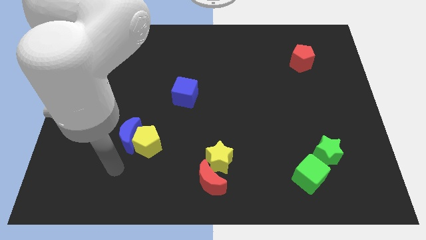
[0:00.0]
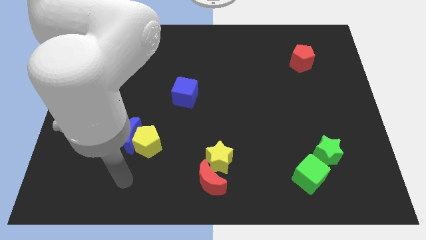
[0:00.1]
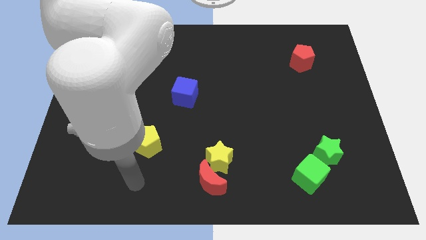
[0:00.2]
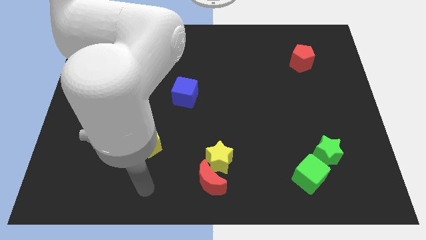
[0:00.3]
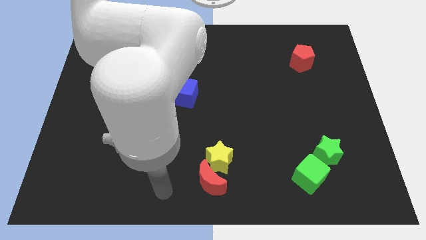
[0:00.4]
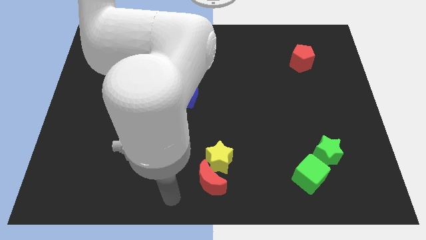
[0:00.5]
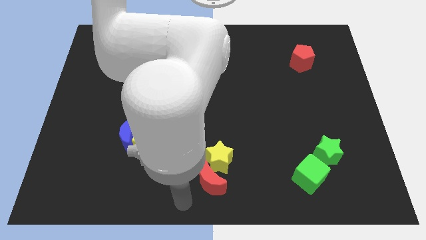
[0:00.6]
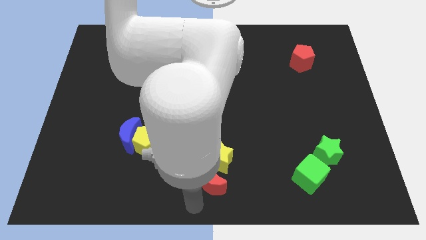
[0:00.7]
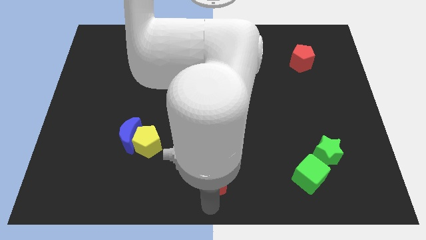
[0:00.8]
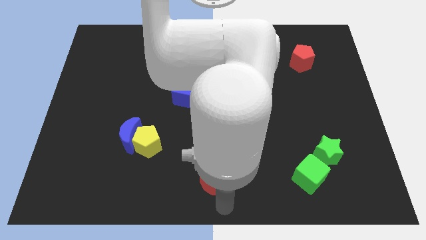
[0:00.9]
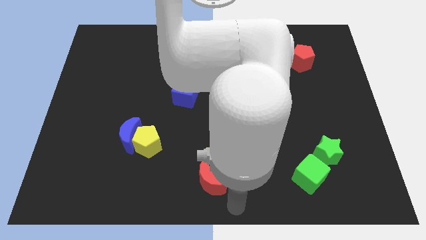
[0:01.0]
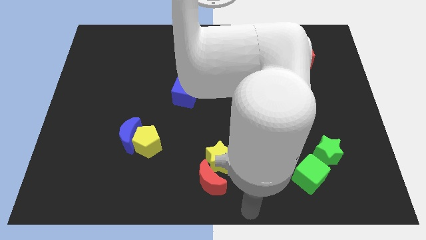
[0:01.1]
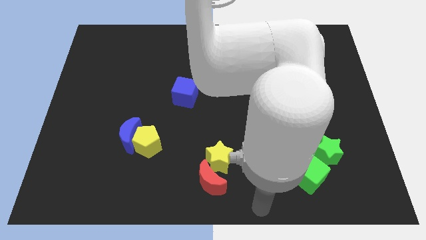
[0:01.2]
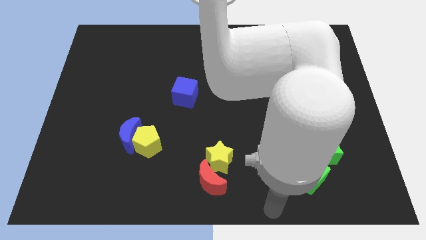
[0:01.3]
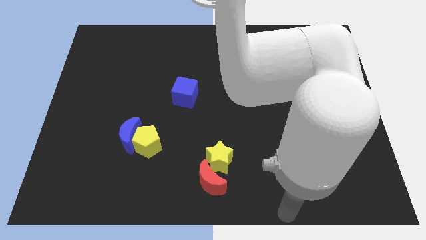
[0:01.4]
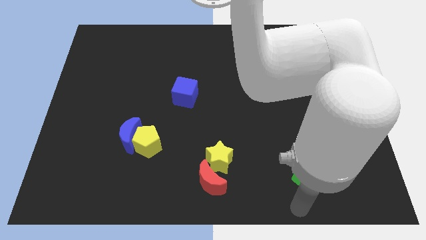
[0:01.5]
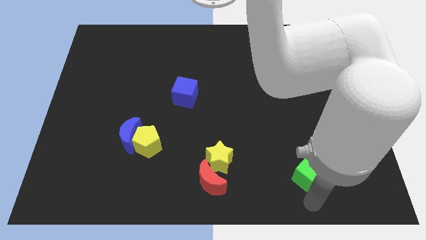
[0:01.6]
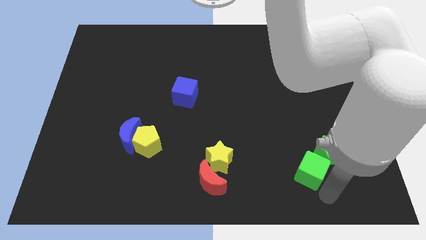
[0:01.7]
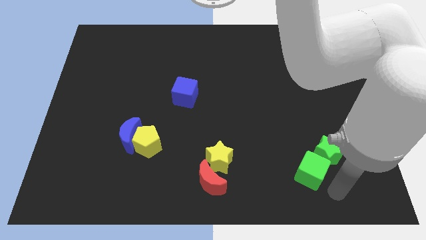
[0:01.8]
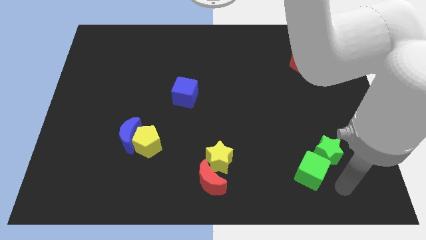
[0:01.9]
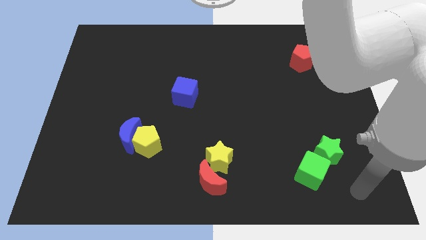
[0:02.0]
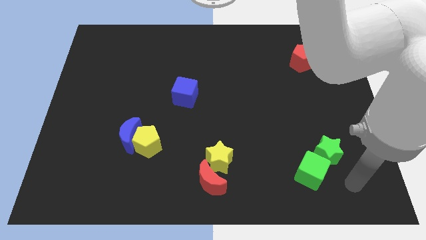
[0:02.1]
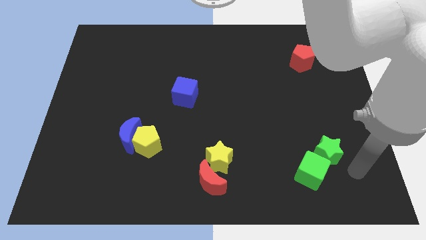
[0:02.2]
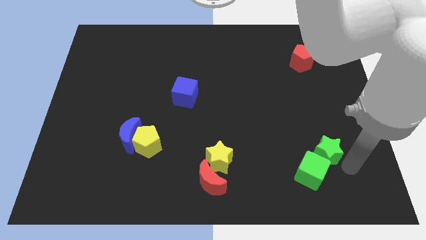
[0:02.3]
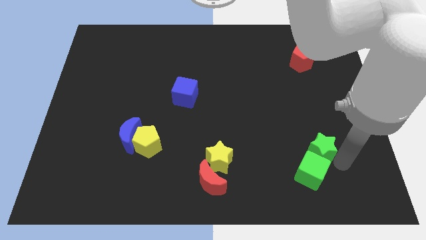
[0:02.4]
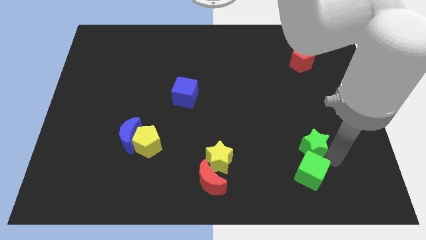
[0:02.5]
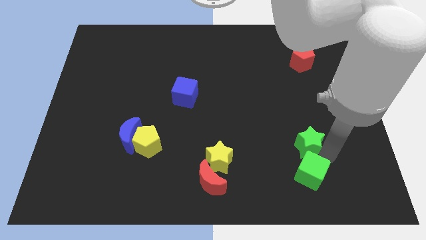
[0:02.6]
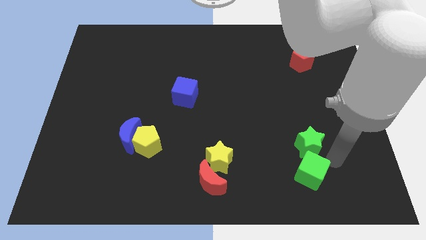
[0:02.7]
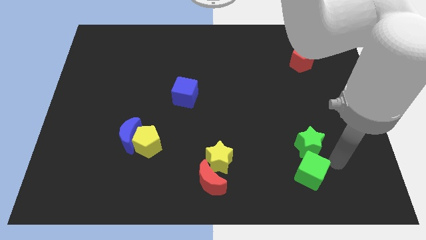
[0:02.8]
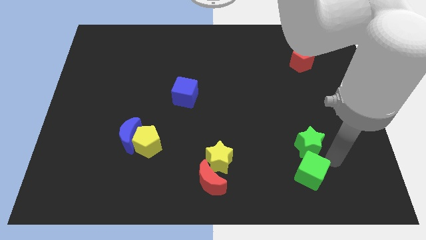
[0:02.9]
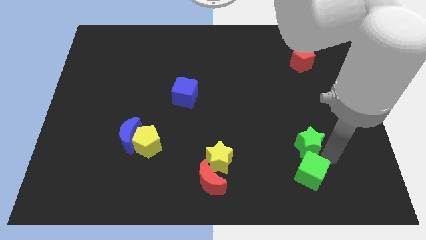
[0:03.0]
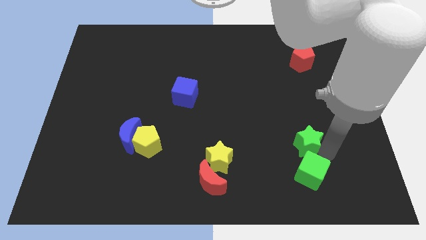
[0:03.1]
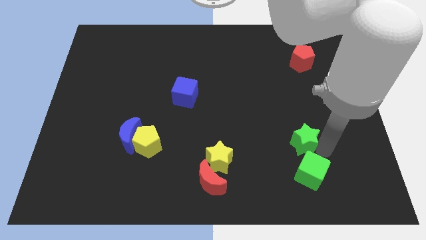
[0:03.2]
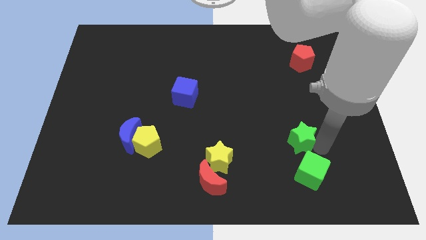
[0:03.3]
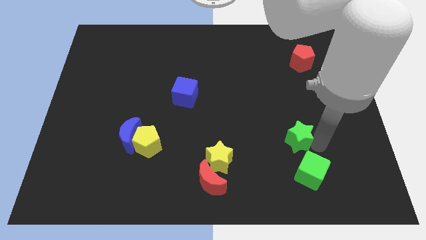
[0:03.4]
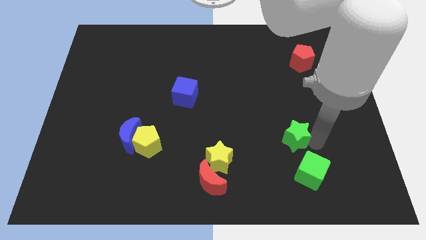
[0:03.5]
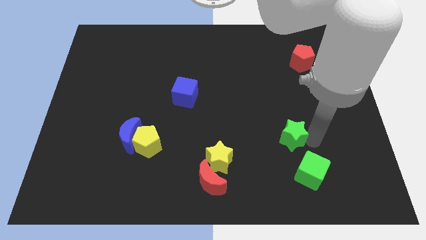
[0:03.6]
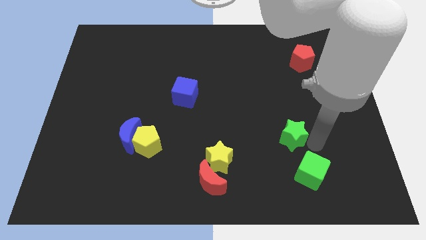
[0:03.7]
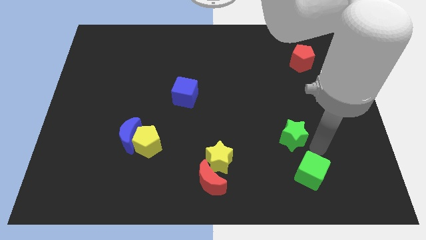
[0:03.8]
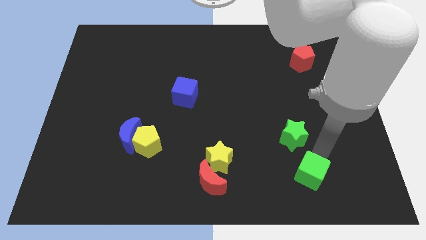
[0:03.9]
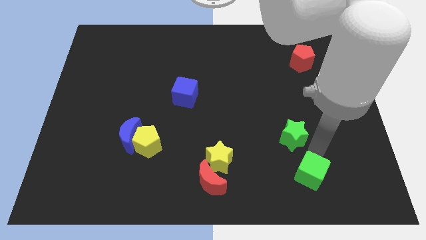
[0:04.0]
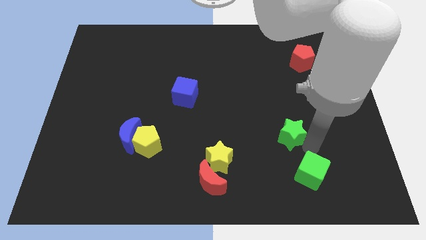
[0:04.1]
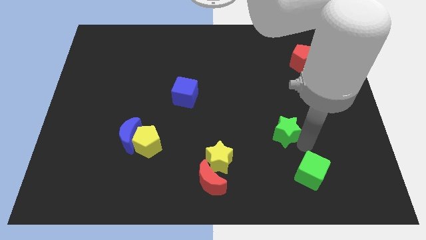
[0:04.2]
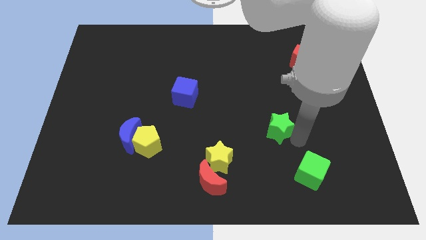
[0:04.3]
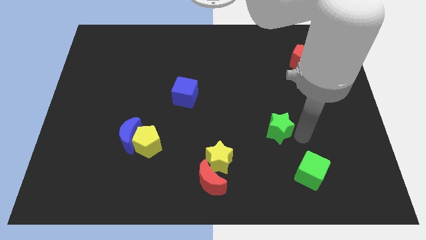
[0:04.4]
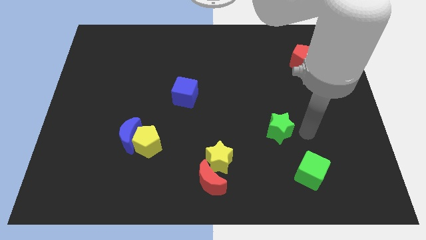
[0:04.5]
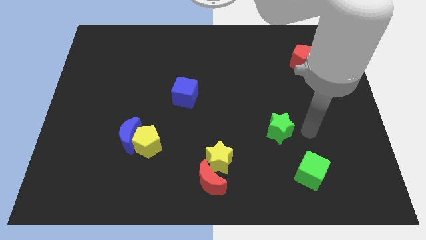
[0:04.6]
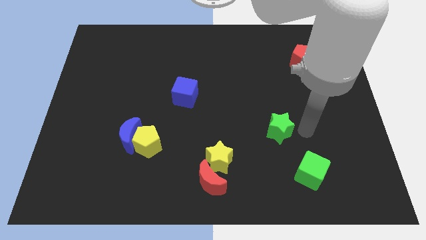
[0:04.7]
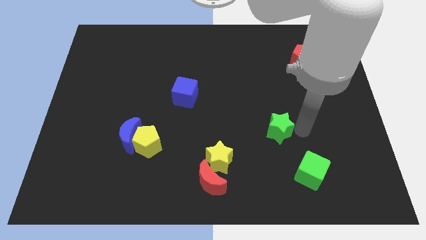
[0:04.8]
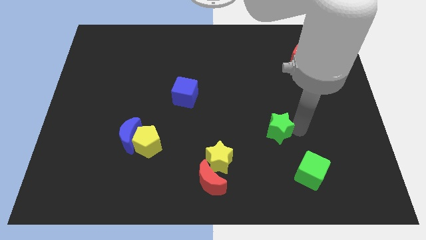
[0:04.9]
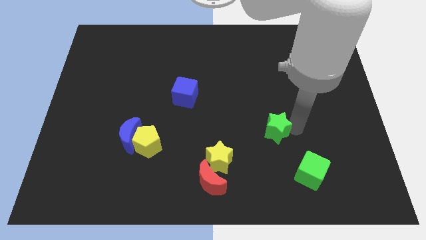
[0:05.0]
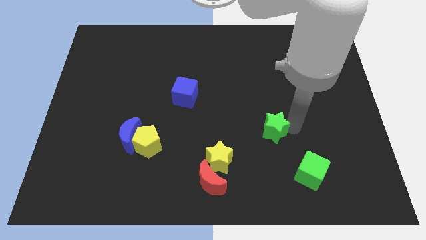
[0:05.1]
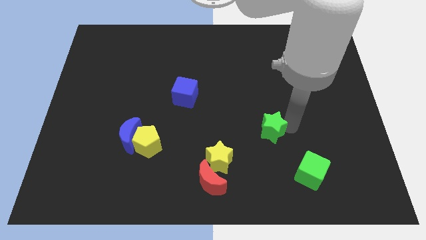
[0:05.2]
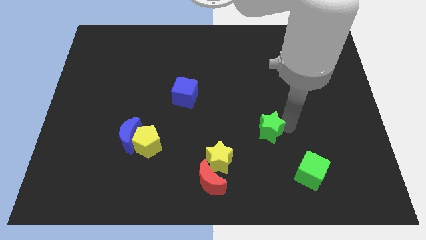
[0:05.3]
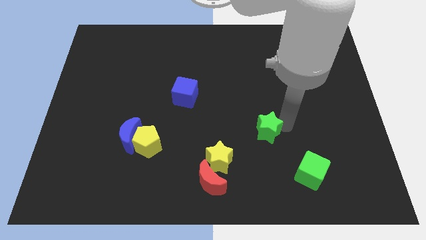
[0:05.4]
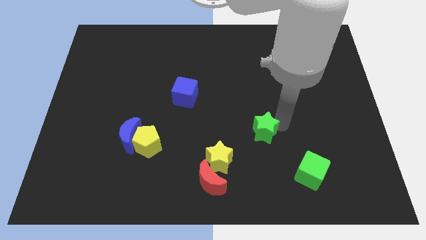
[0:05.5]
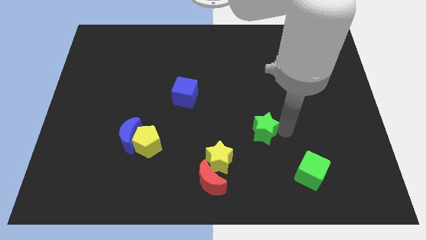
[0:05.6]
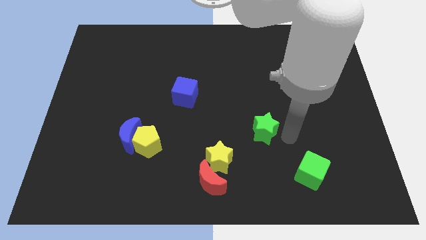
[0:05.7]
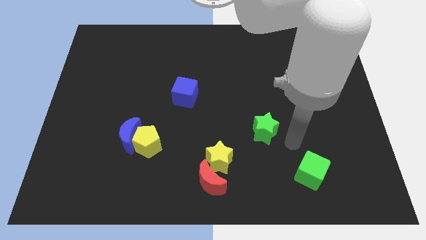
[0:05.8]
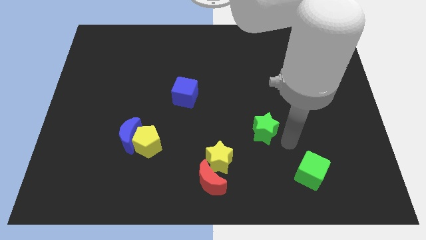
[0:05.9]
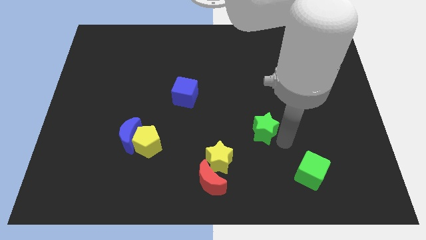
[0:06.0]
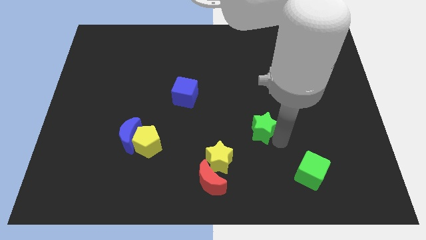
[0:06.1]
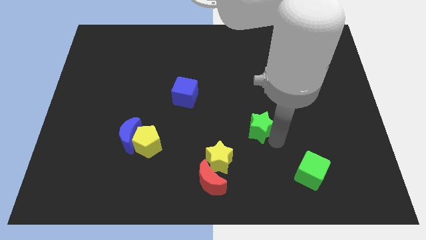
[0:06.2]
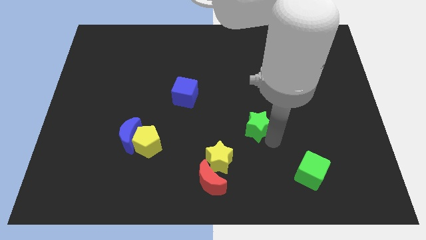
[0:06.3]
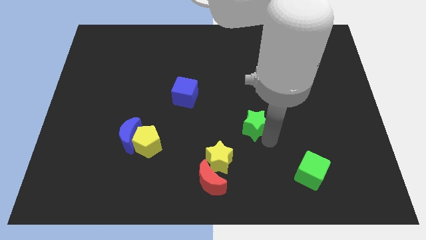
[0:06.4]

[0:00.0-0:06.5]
move the green star to the center

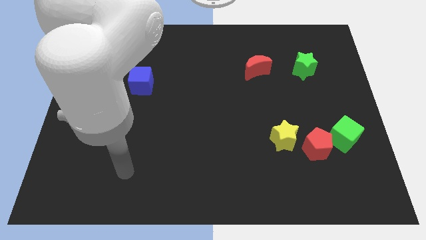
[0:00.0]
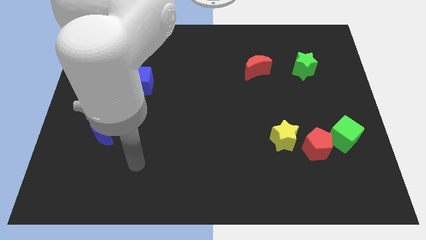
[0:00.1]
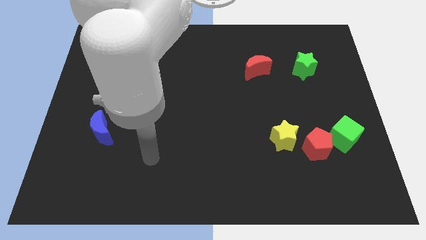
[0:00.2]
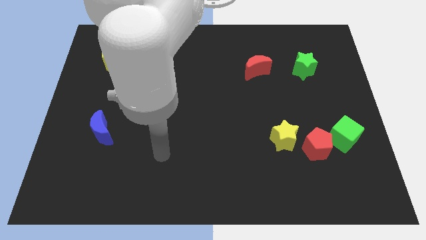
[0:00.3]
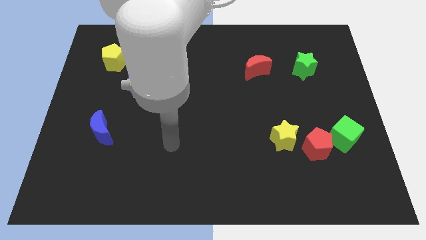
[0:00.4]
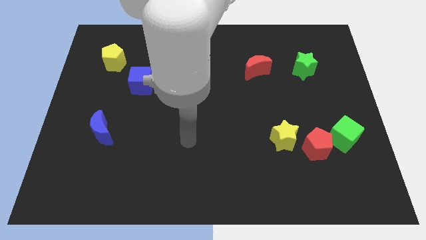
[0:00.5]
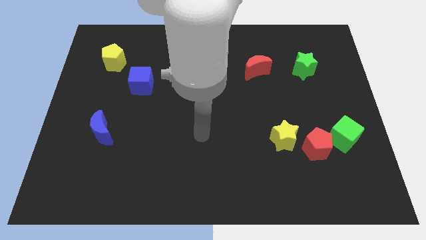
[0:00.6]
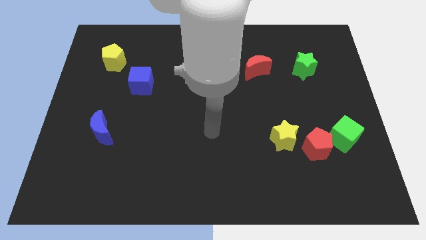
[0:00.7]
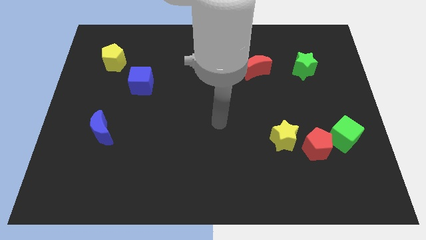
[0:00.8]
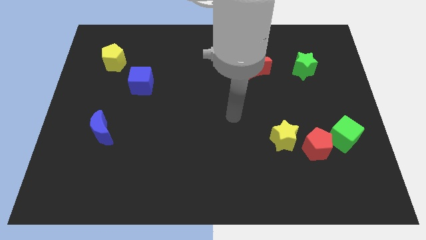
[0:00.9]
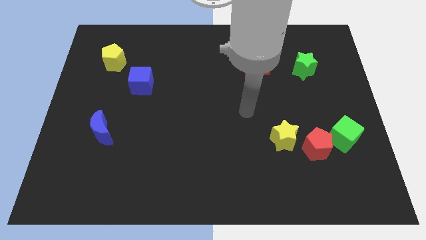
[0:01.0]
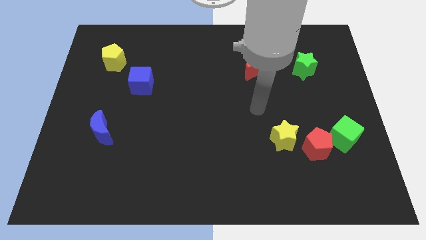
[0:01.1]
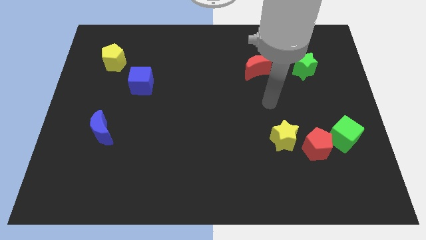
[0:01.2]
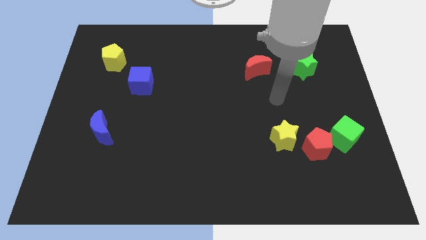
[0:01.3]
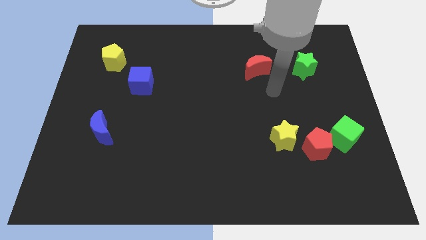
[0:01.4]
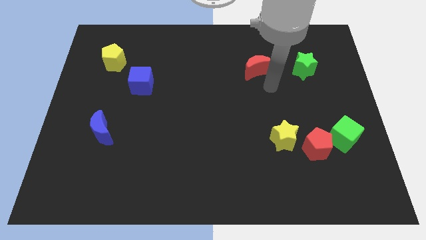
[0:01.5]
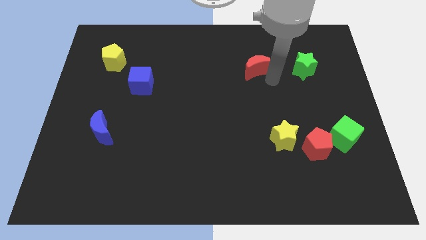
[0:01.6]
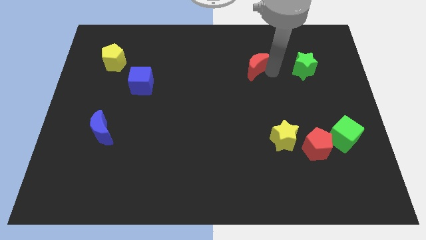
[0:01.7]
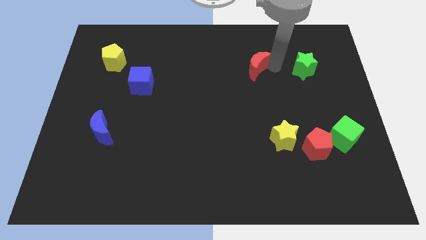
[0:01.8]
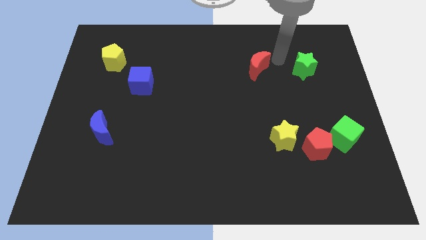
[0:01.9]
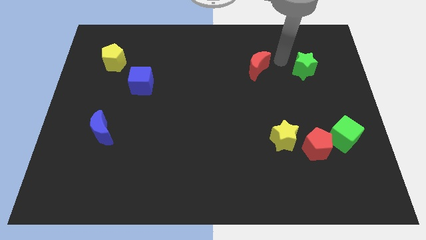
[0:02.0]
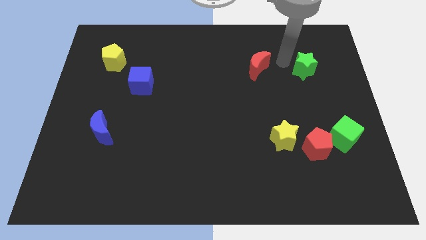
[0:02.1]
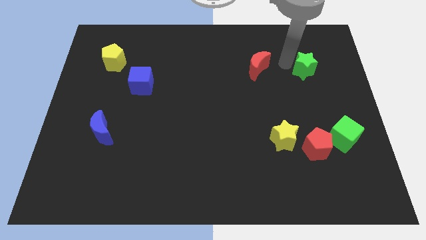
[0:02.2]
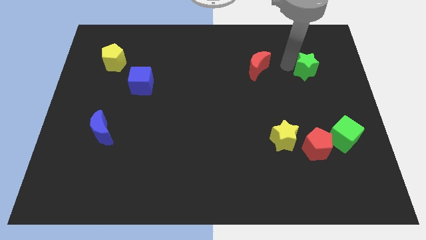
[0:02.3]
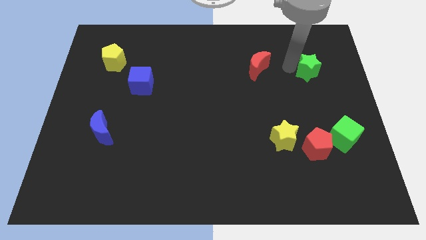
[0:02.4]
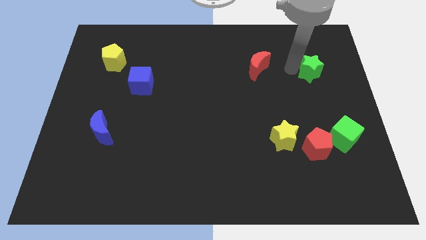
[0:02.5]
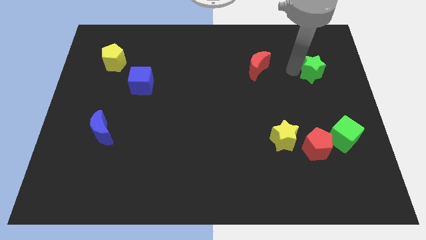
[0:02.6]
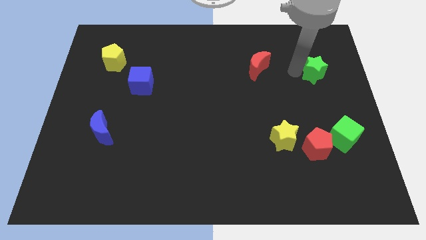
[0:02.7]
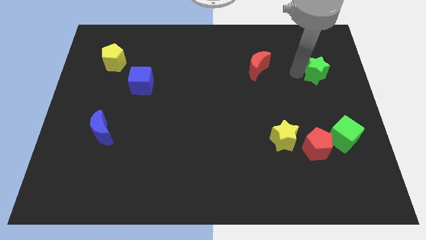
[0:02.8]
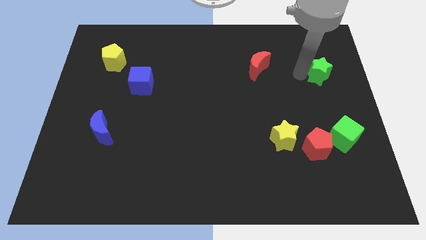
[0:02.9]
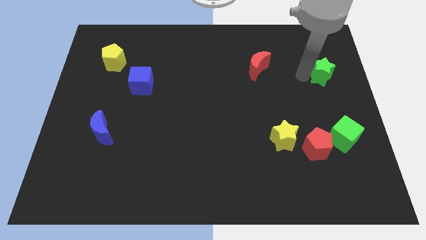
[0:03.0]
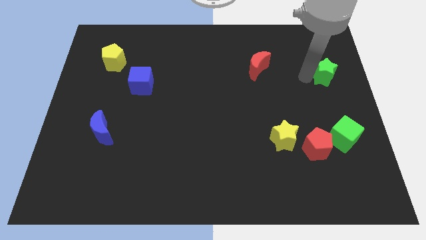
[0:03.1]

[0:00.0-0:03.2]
push the green star to the center right
